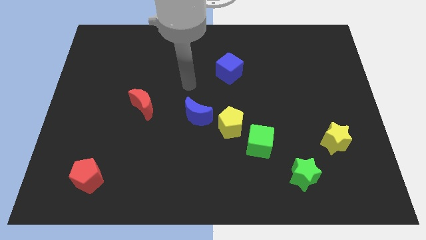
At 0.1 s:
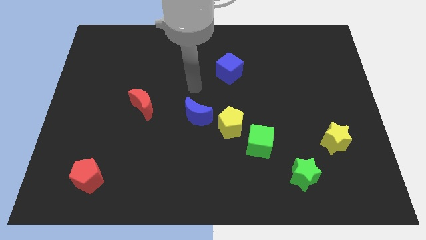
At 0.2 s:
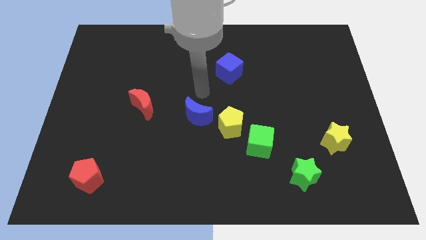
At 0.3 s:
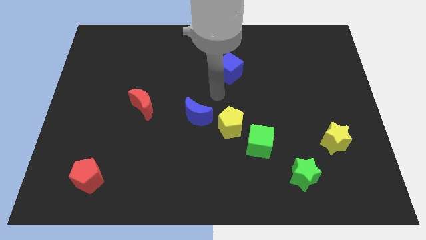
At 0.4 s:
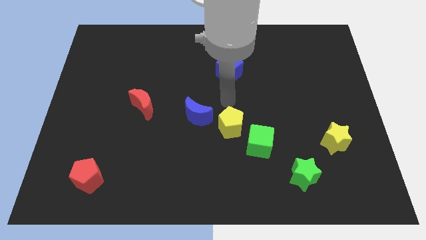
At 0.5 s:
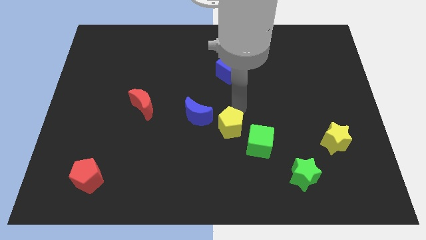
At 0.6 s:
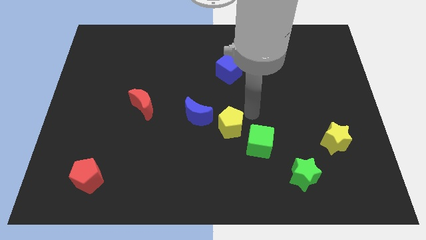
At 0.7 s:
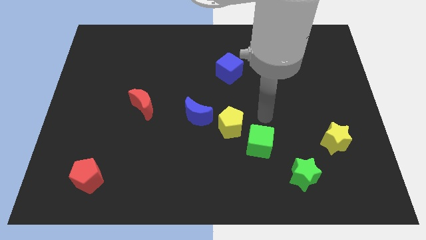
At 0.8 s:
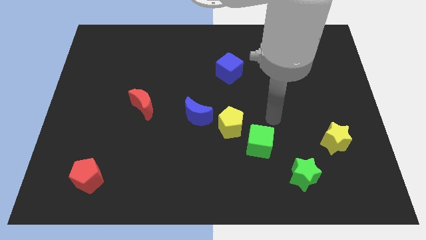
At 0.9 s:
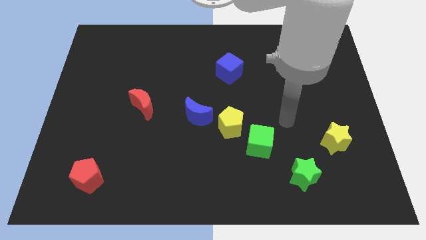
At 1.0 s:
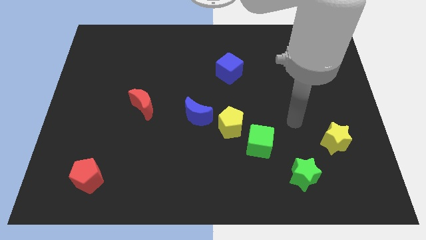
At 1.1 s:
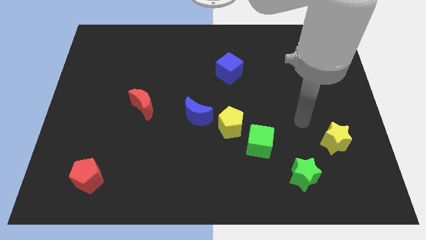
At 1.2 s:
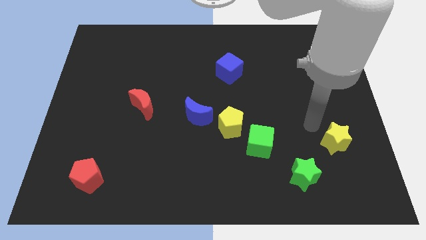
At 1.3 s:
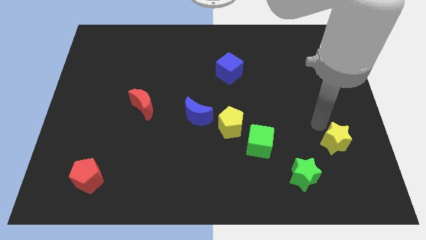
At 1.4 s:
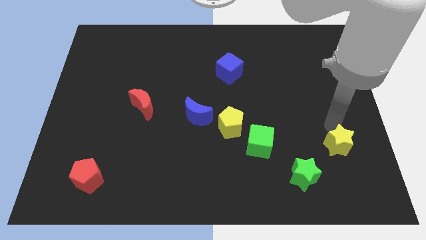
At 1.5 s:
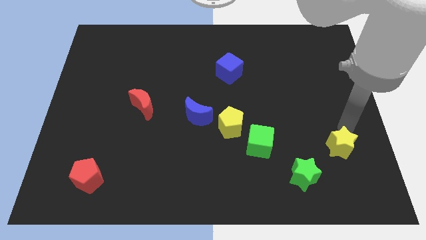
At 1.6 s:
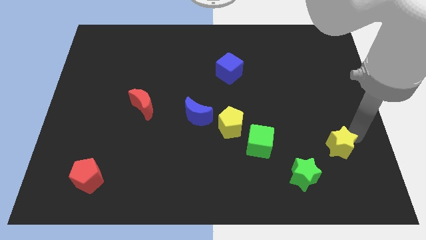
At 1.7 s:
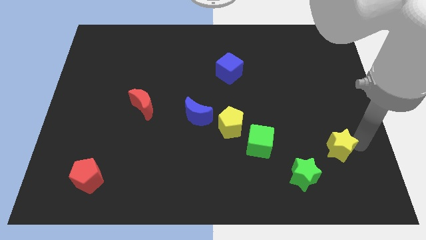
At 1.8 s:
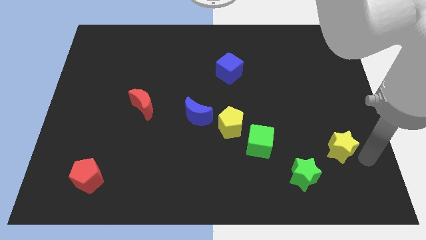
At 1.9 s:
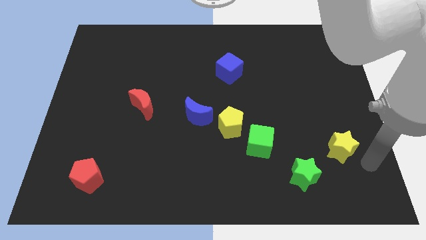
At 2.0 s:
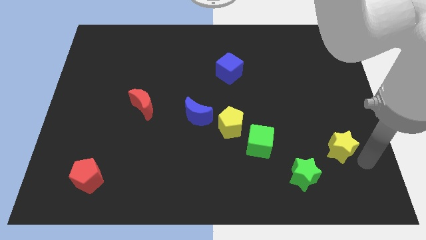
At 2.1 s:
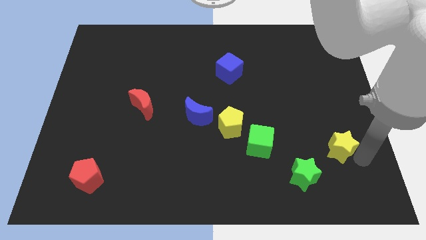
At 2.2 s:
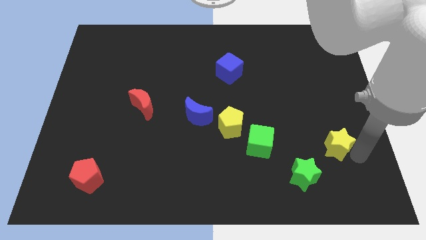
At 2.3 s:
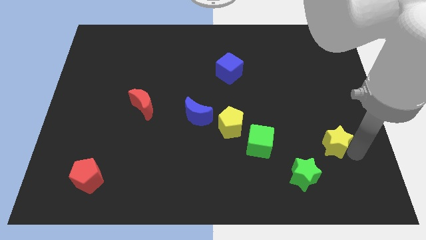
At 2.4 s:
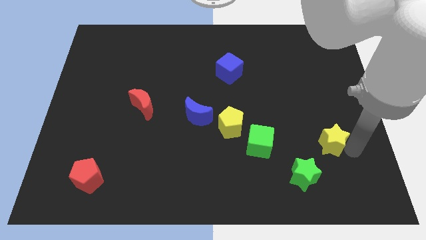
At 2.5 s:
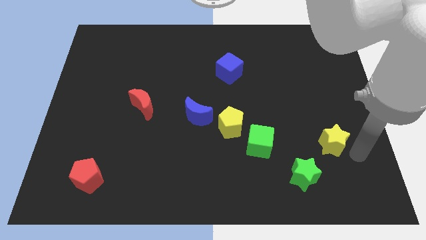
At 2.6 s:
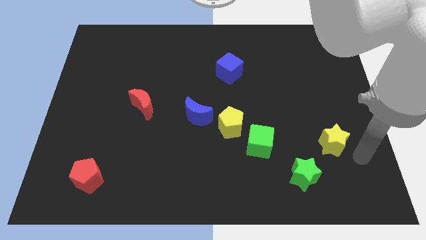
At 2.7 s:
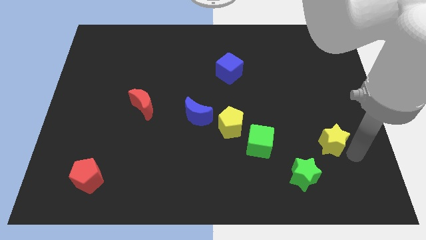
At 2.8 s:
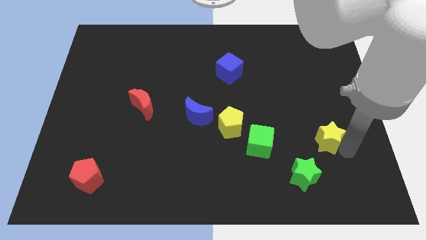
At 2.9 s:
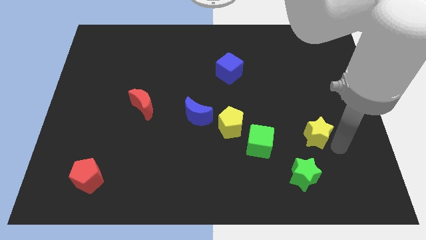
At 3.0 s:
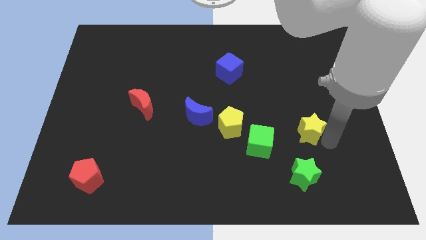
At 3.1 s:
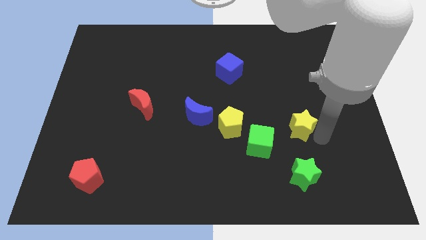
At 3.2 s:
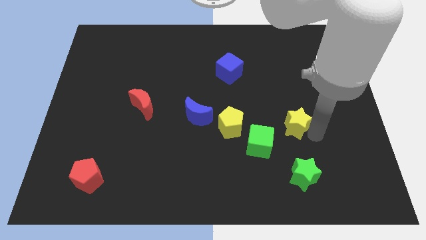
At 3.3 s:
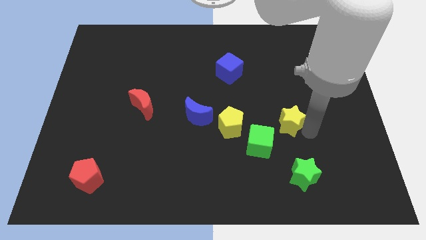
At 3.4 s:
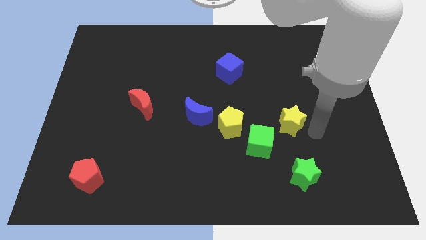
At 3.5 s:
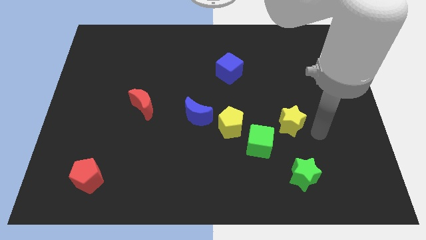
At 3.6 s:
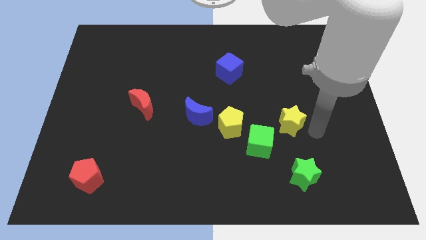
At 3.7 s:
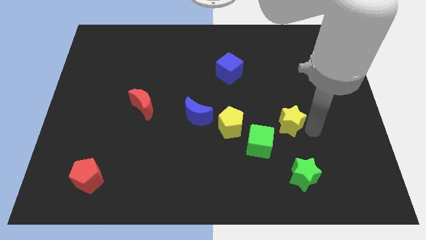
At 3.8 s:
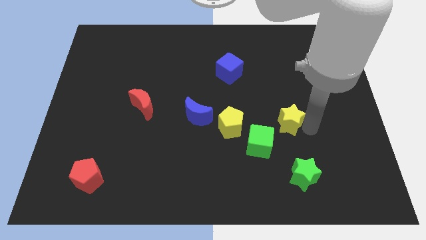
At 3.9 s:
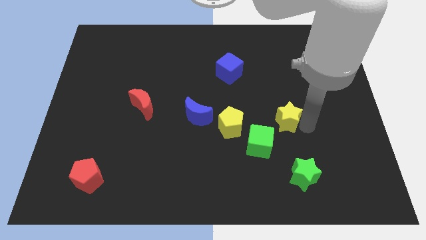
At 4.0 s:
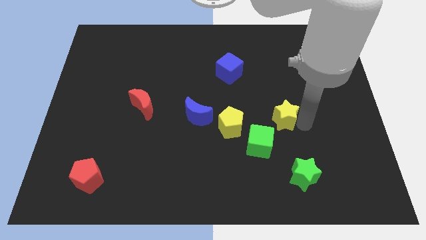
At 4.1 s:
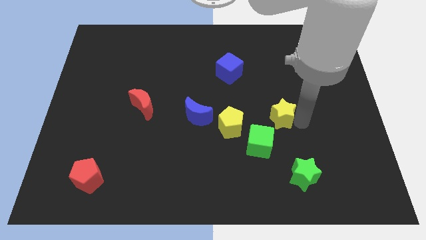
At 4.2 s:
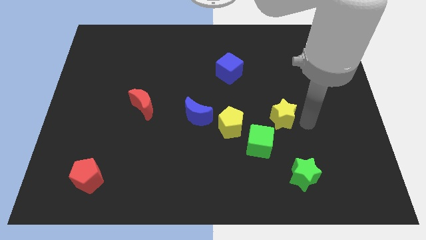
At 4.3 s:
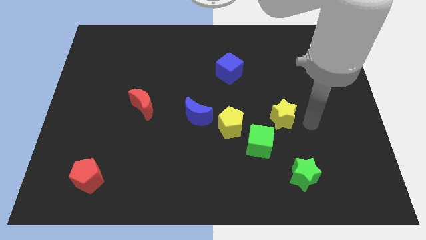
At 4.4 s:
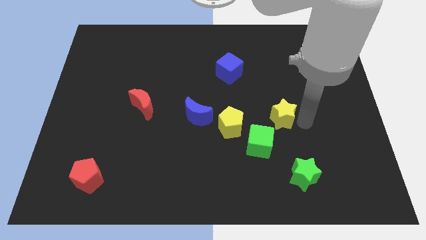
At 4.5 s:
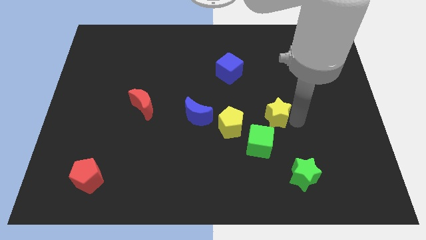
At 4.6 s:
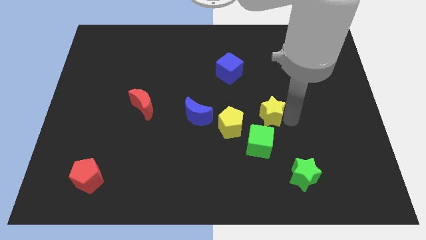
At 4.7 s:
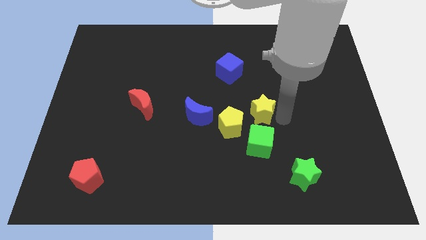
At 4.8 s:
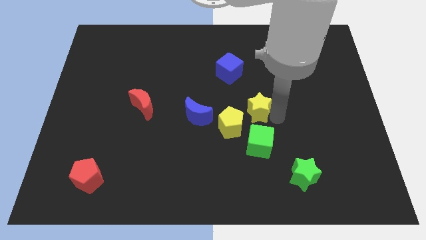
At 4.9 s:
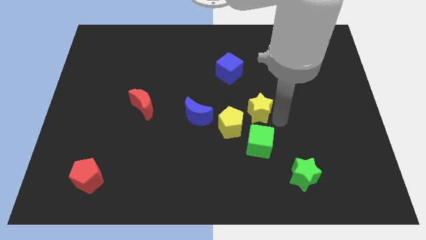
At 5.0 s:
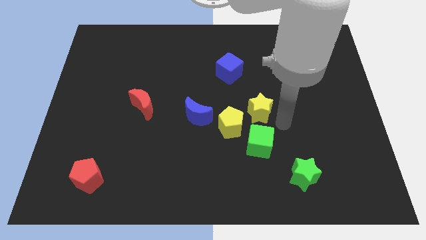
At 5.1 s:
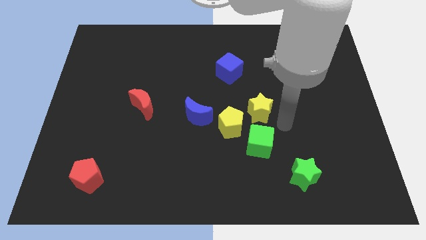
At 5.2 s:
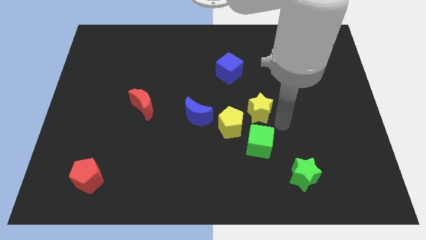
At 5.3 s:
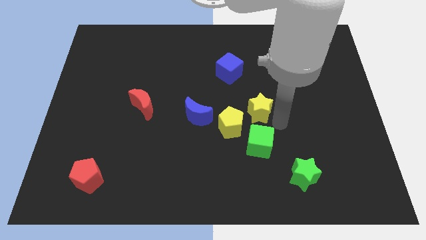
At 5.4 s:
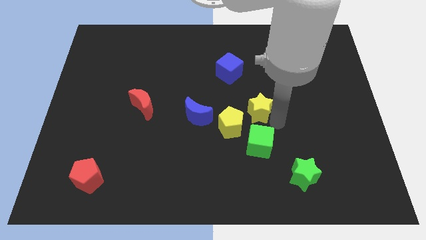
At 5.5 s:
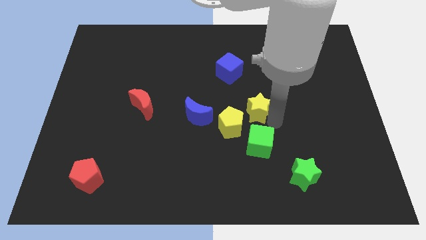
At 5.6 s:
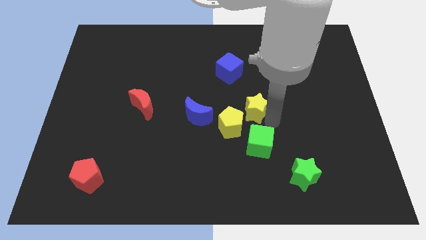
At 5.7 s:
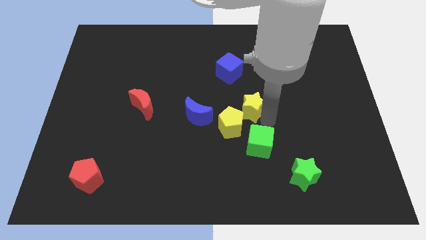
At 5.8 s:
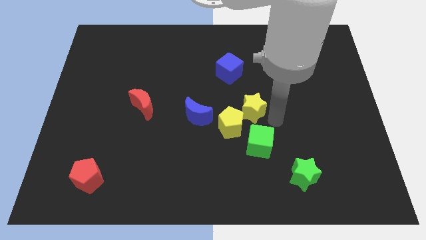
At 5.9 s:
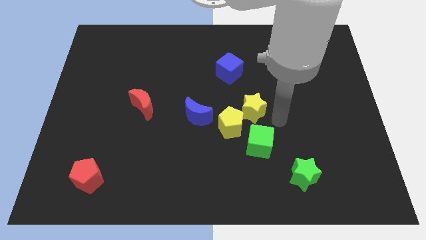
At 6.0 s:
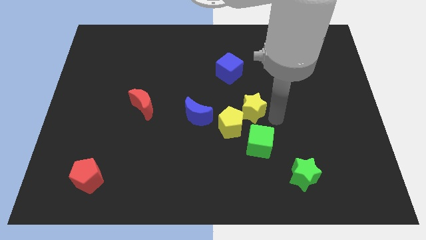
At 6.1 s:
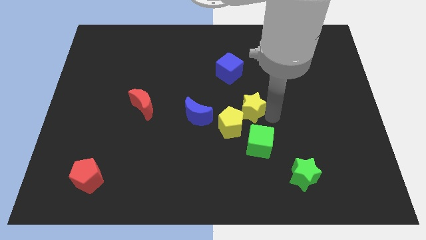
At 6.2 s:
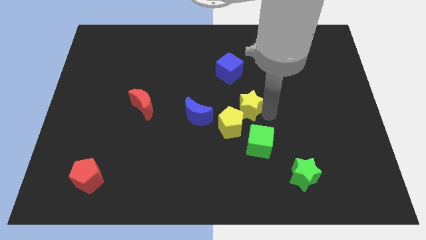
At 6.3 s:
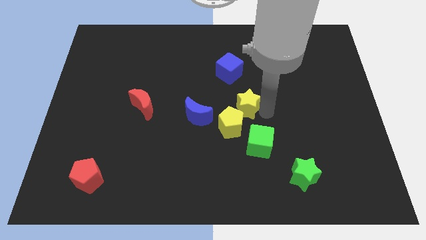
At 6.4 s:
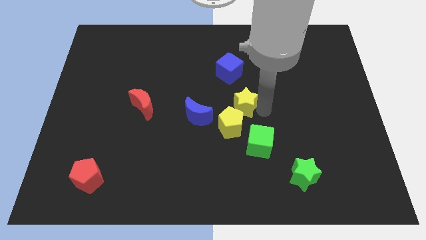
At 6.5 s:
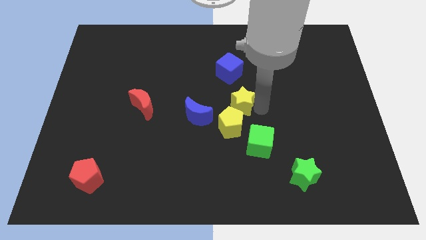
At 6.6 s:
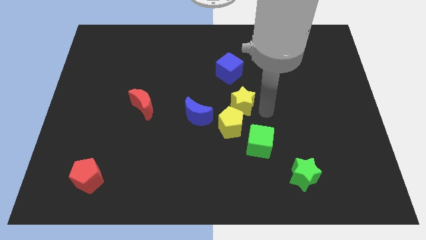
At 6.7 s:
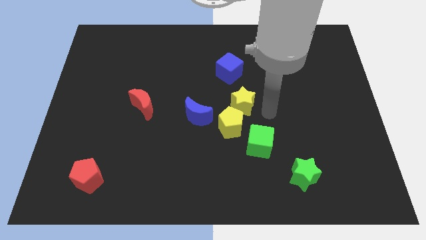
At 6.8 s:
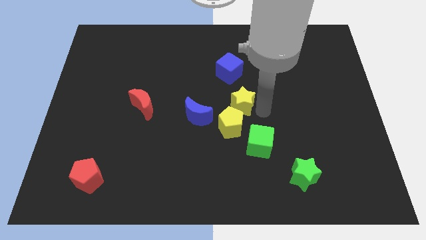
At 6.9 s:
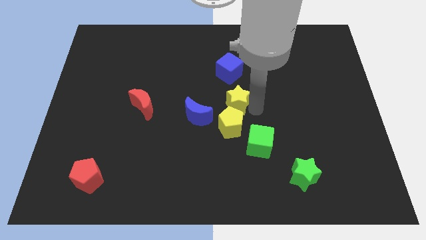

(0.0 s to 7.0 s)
push the yellow star to the top right of the blue moon
